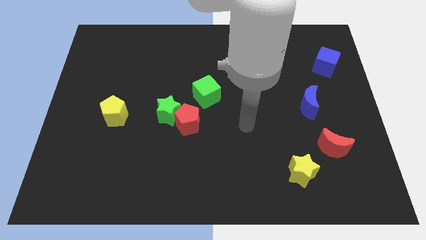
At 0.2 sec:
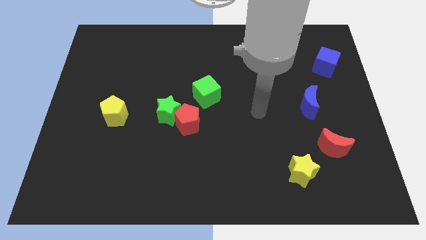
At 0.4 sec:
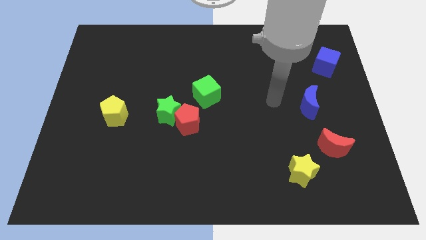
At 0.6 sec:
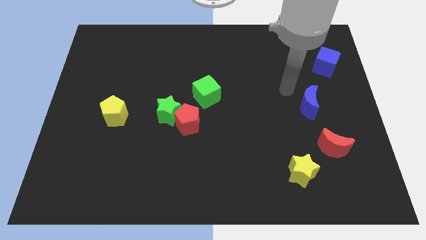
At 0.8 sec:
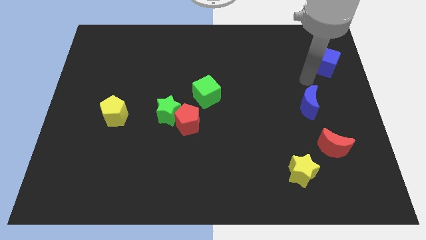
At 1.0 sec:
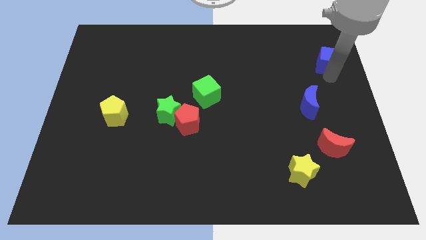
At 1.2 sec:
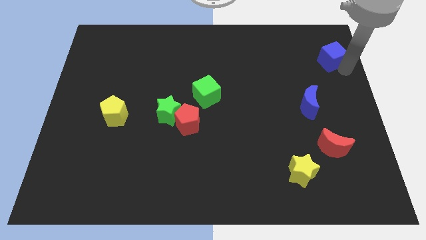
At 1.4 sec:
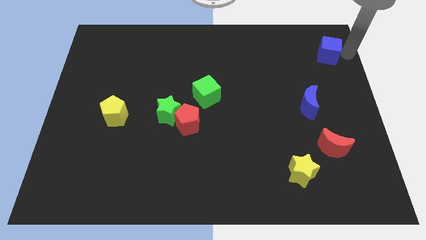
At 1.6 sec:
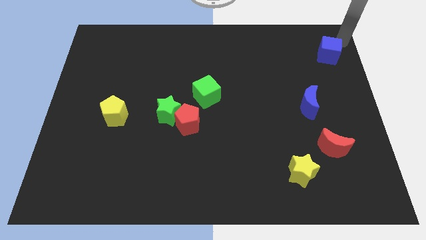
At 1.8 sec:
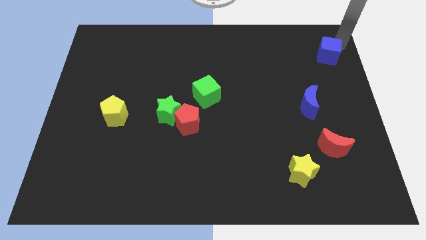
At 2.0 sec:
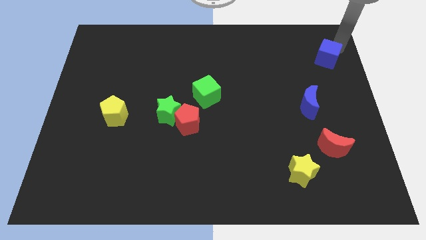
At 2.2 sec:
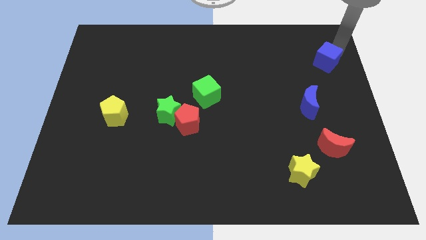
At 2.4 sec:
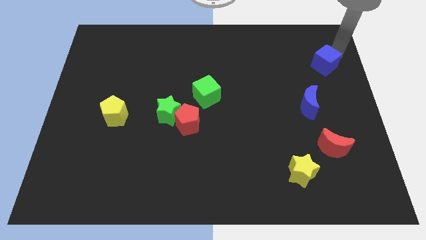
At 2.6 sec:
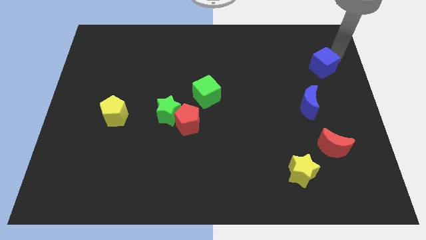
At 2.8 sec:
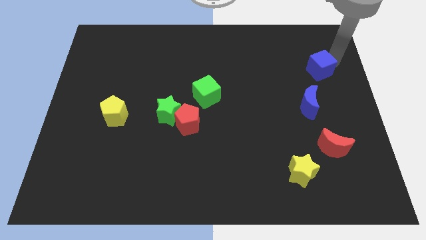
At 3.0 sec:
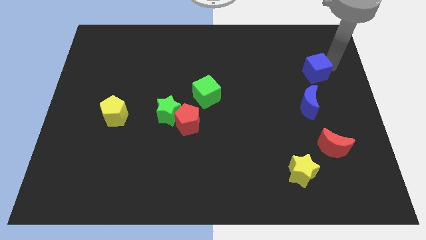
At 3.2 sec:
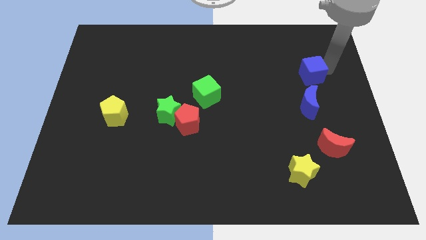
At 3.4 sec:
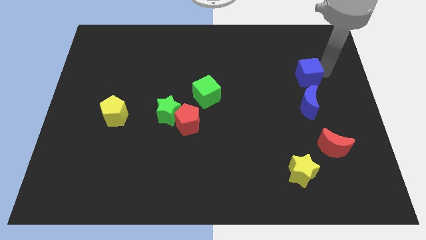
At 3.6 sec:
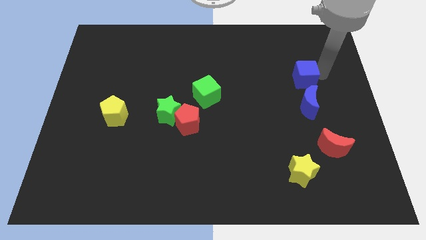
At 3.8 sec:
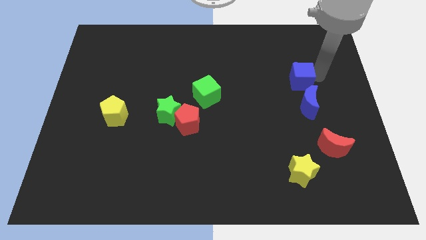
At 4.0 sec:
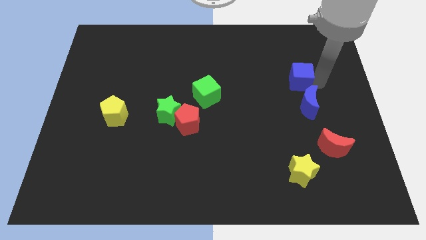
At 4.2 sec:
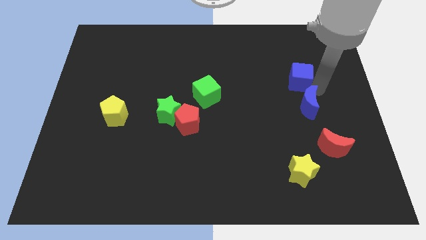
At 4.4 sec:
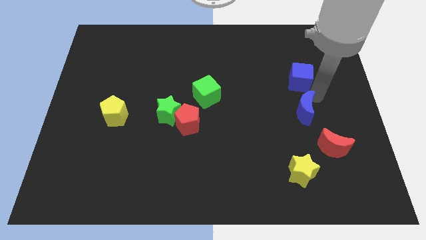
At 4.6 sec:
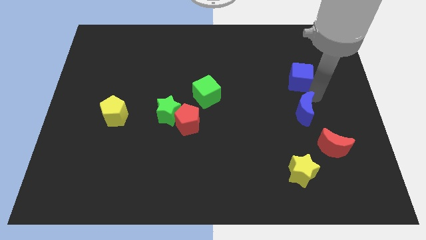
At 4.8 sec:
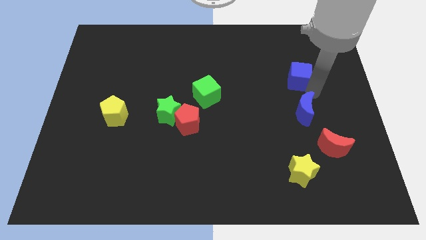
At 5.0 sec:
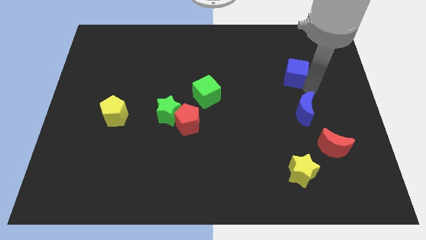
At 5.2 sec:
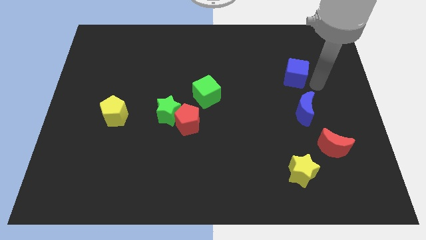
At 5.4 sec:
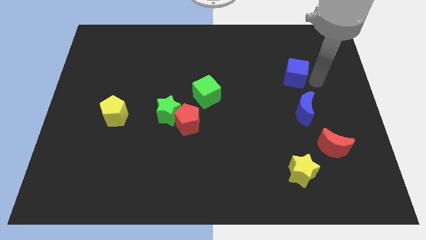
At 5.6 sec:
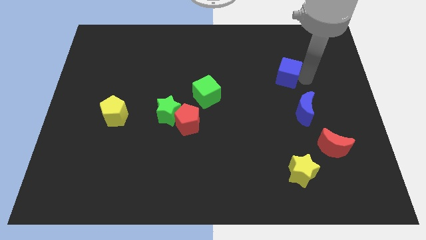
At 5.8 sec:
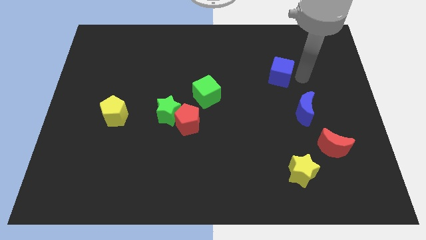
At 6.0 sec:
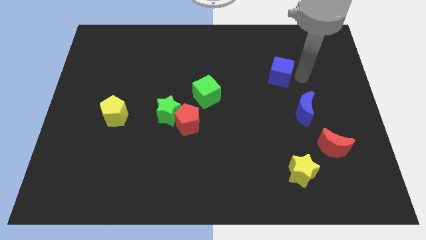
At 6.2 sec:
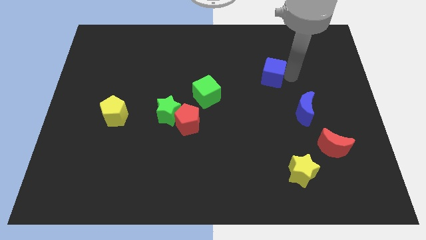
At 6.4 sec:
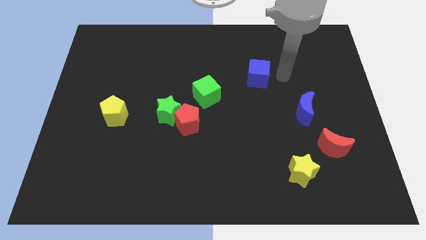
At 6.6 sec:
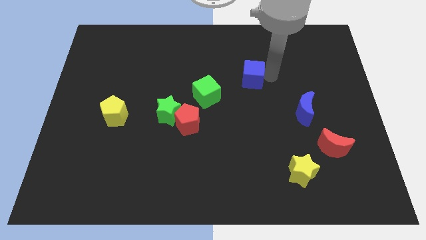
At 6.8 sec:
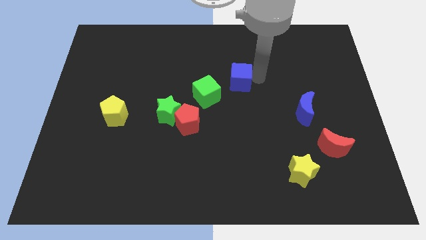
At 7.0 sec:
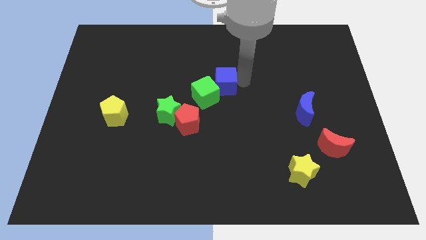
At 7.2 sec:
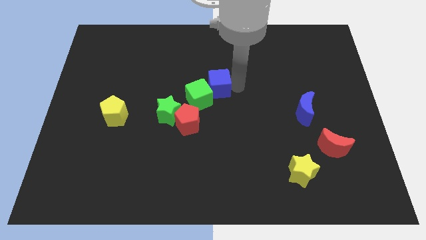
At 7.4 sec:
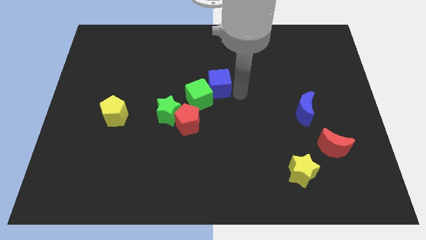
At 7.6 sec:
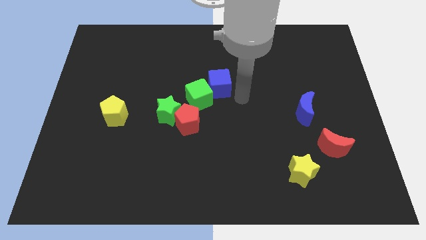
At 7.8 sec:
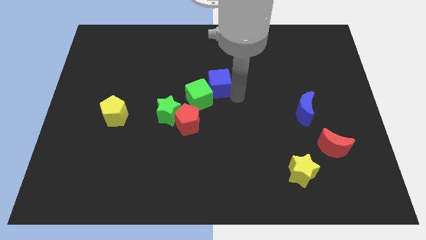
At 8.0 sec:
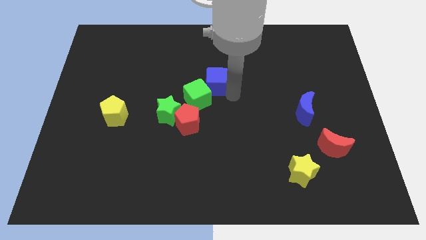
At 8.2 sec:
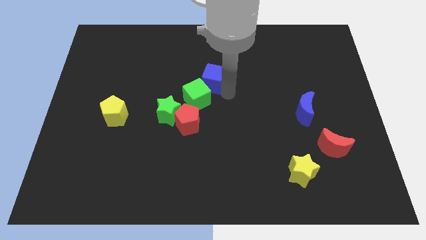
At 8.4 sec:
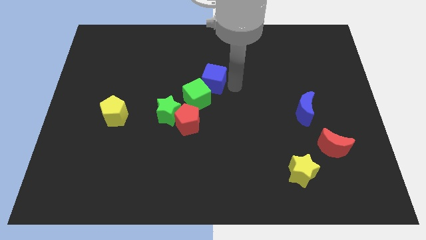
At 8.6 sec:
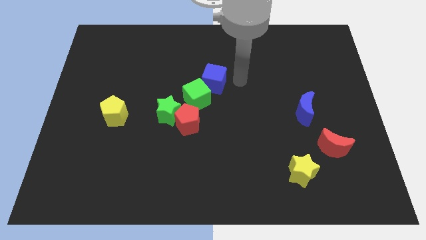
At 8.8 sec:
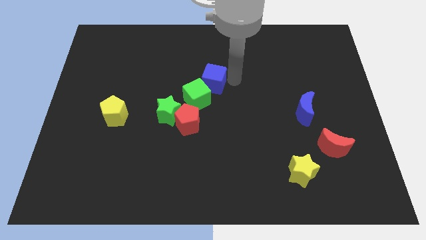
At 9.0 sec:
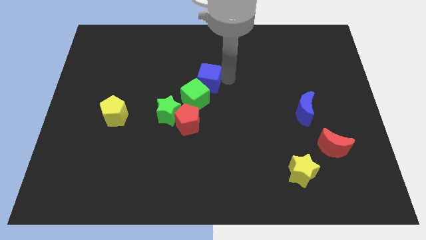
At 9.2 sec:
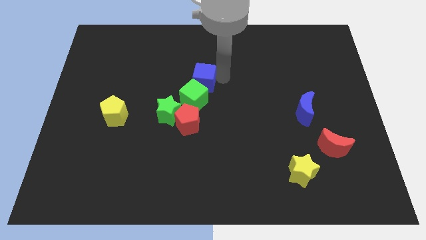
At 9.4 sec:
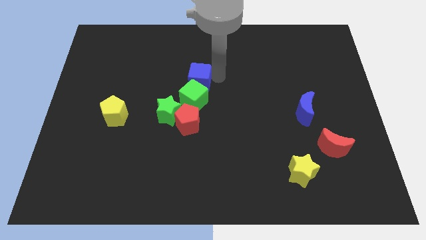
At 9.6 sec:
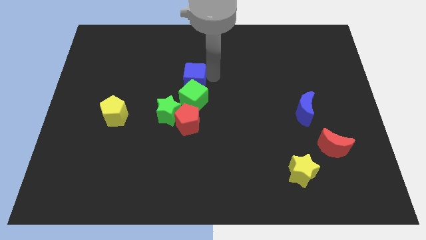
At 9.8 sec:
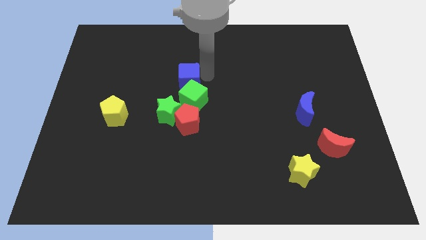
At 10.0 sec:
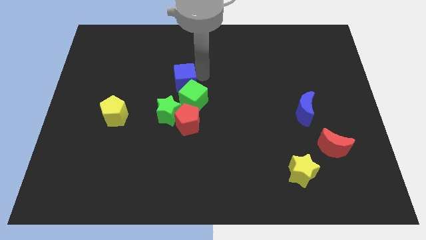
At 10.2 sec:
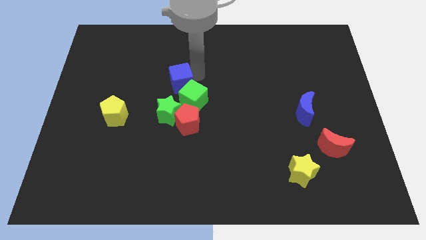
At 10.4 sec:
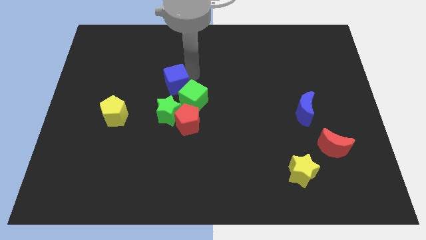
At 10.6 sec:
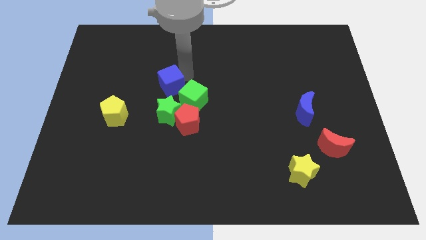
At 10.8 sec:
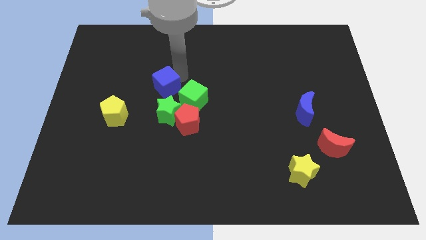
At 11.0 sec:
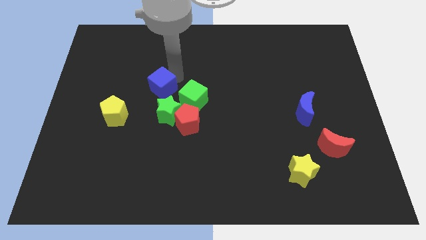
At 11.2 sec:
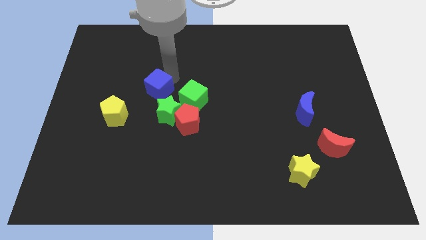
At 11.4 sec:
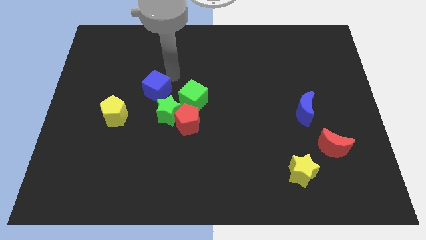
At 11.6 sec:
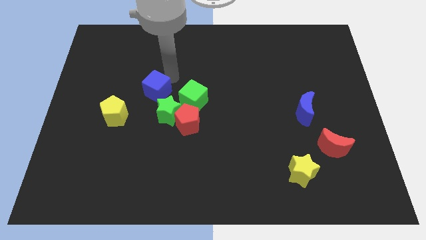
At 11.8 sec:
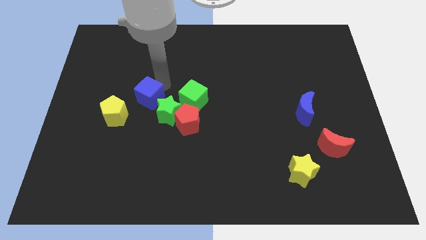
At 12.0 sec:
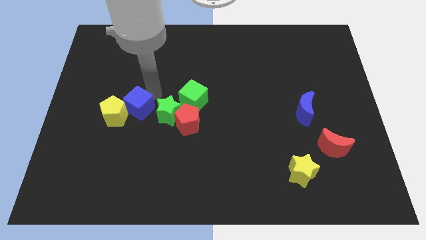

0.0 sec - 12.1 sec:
put the blue cube next to the yellow pentagon

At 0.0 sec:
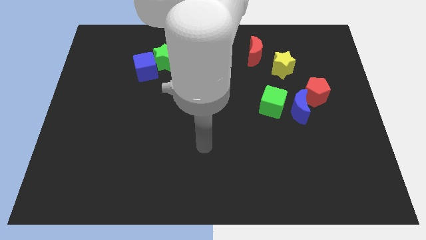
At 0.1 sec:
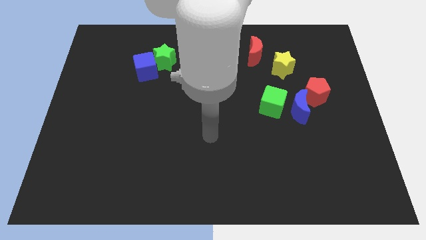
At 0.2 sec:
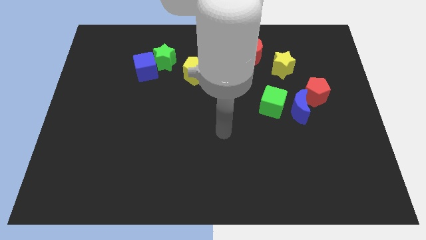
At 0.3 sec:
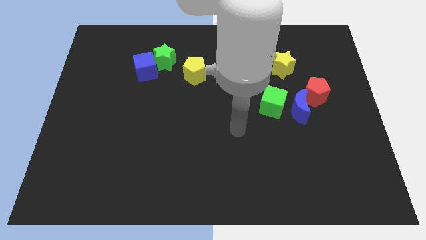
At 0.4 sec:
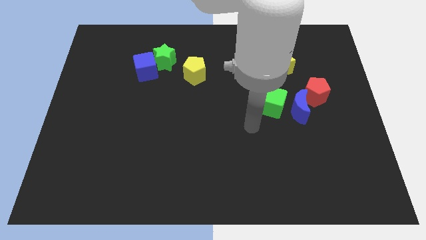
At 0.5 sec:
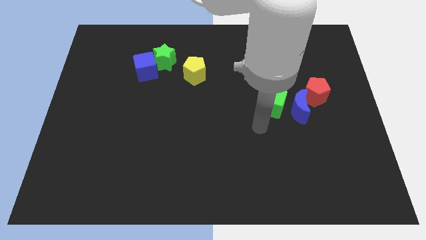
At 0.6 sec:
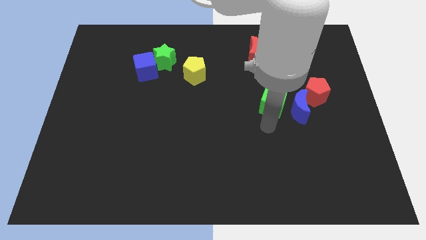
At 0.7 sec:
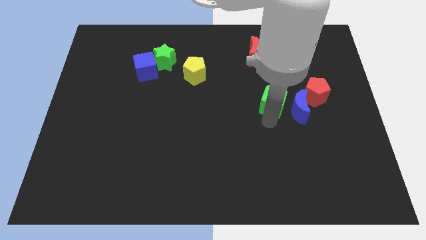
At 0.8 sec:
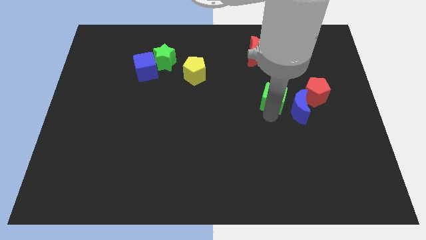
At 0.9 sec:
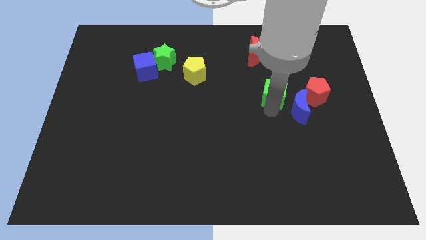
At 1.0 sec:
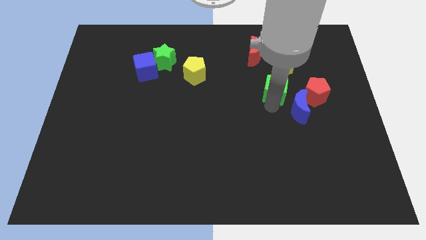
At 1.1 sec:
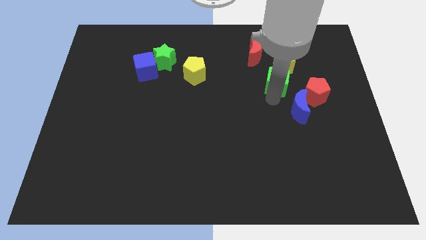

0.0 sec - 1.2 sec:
push the green cube next to the yellow star

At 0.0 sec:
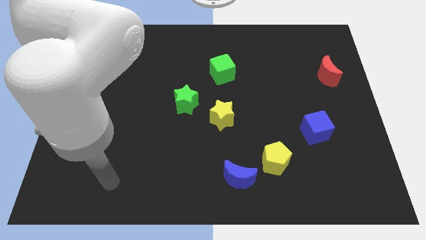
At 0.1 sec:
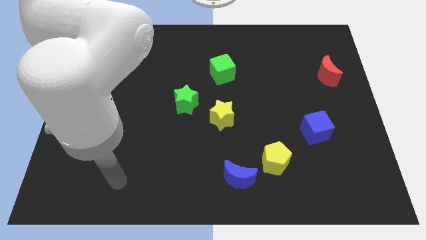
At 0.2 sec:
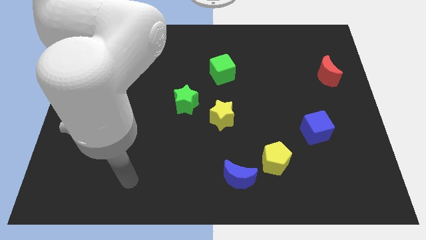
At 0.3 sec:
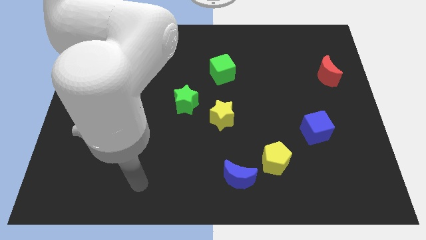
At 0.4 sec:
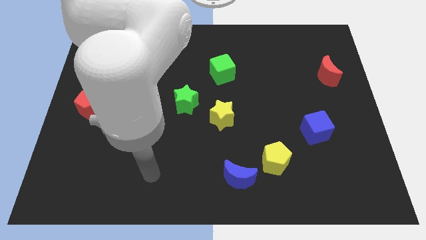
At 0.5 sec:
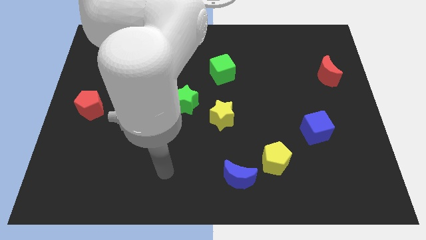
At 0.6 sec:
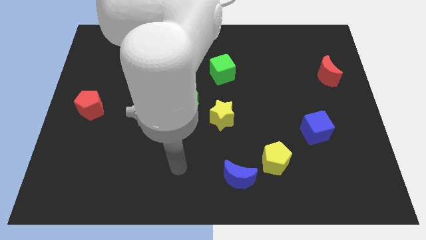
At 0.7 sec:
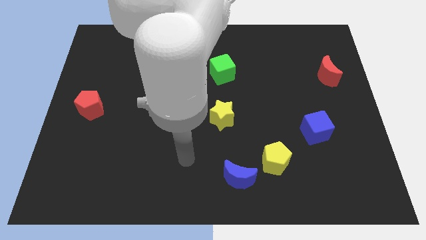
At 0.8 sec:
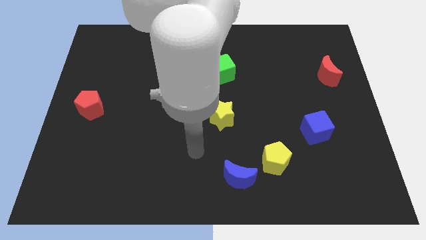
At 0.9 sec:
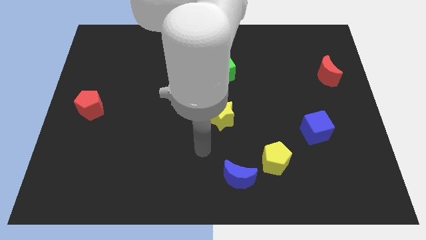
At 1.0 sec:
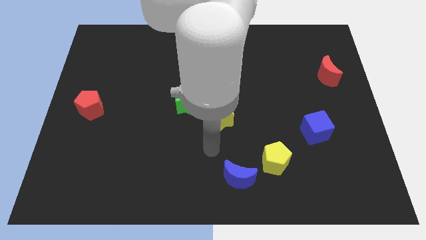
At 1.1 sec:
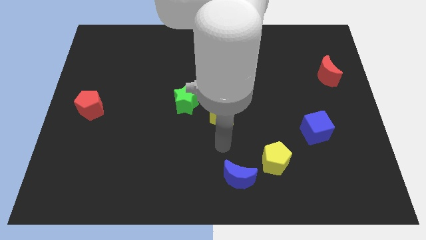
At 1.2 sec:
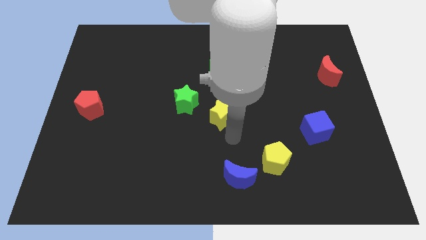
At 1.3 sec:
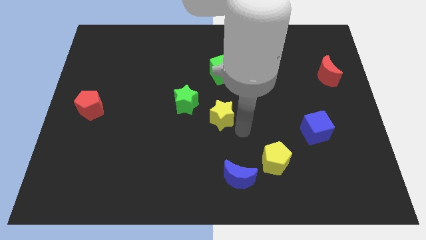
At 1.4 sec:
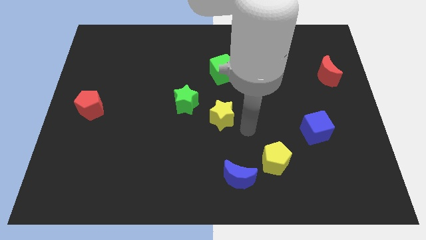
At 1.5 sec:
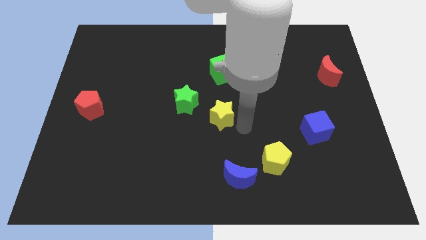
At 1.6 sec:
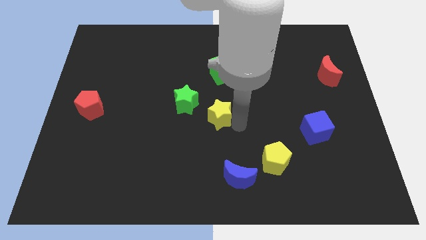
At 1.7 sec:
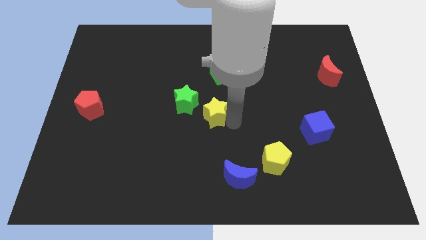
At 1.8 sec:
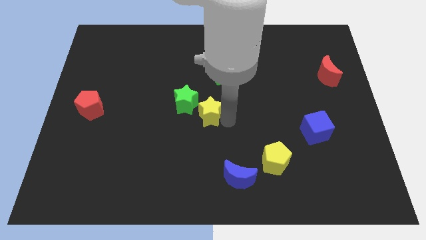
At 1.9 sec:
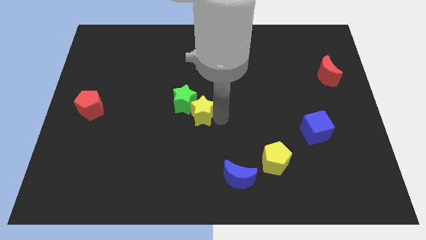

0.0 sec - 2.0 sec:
push the yellow star to the green star
